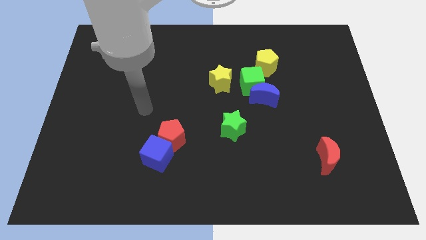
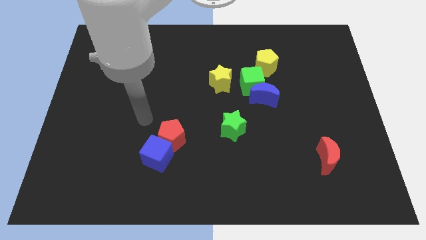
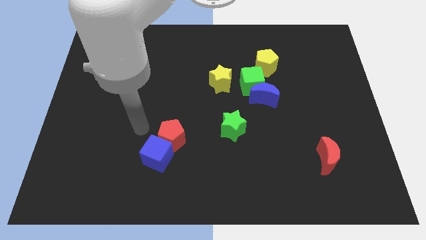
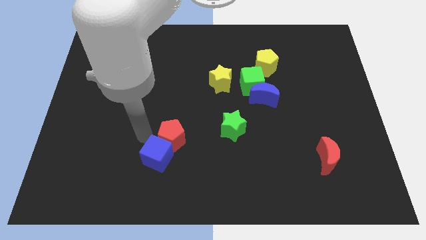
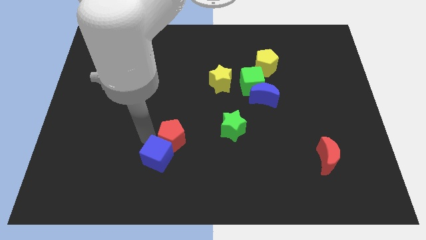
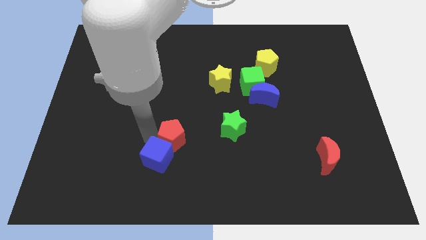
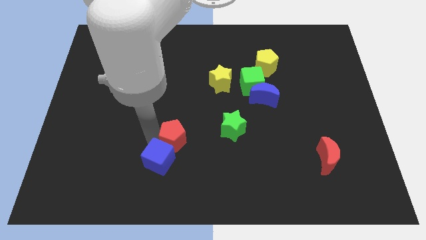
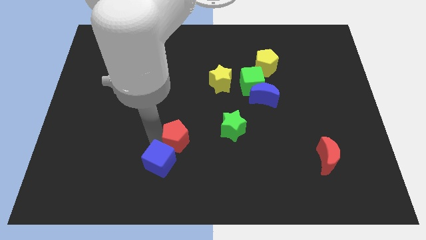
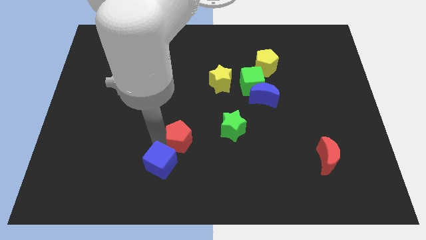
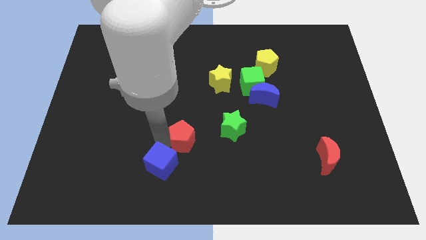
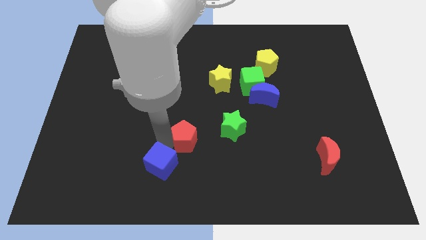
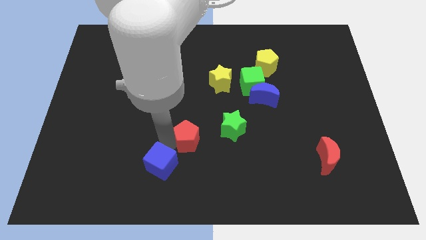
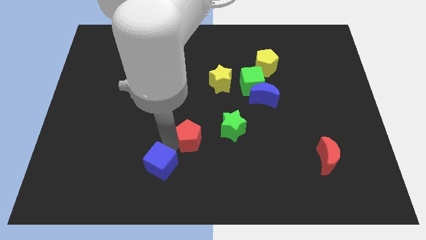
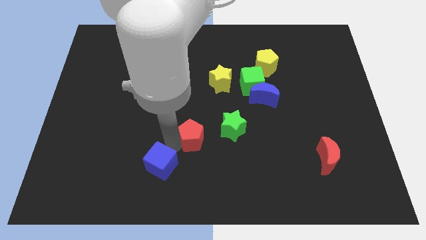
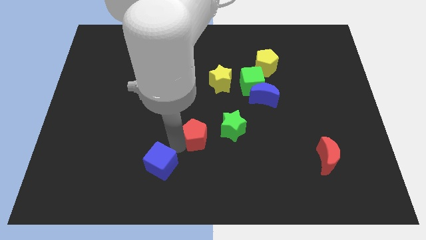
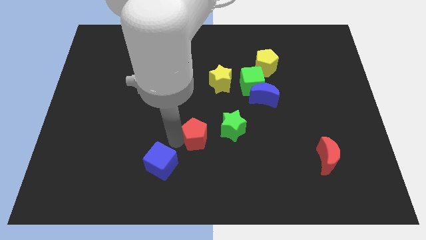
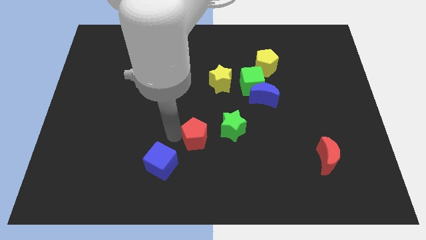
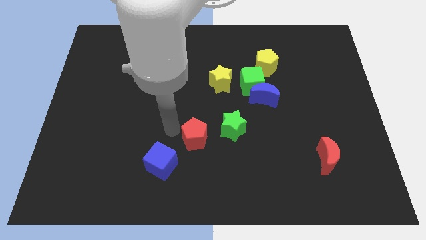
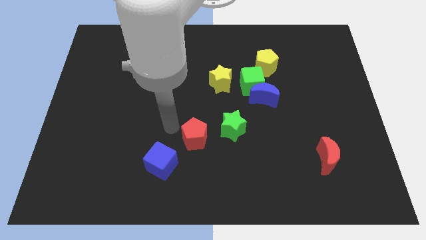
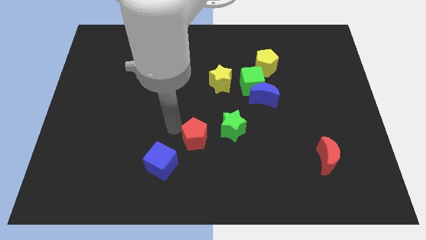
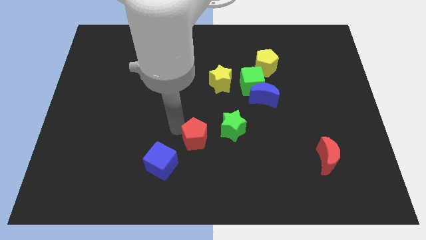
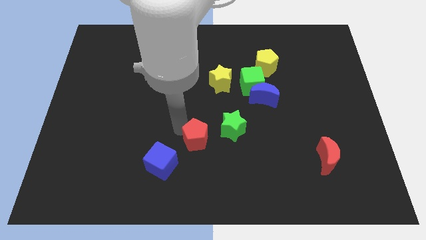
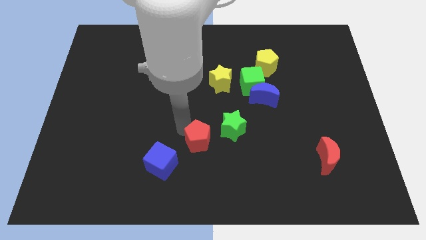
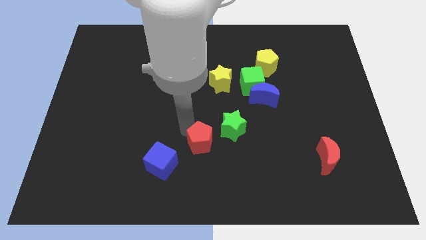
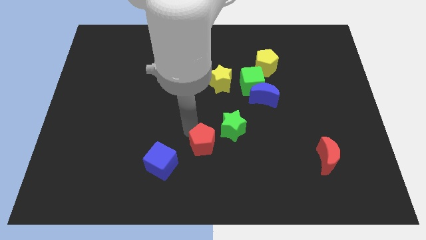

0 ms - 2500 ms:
slightly push the red pentagon right

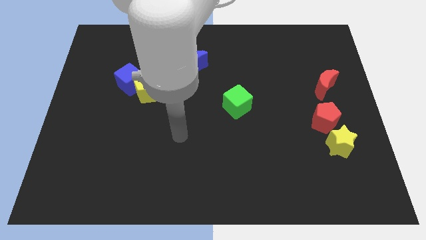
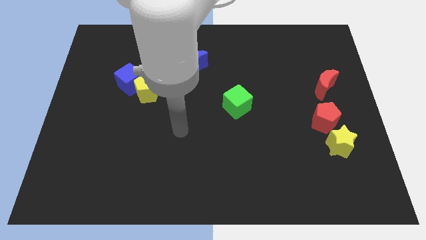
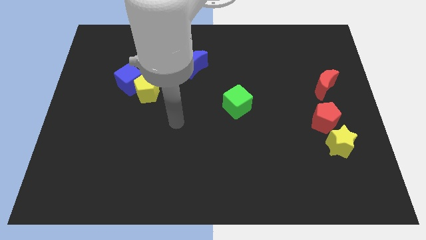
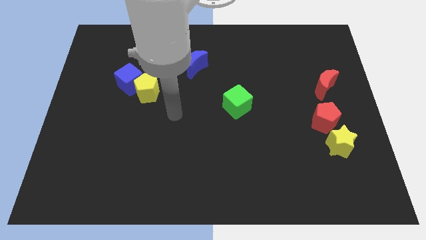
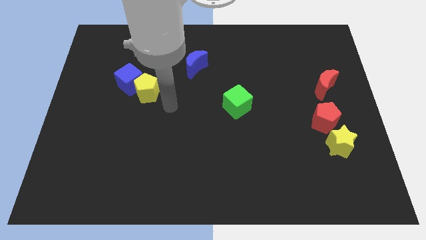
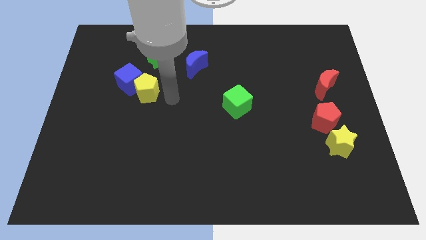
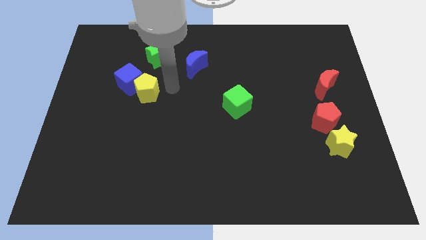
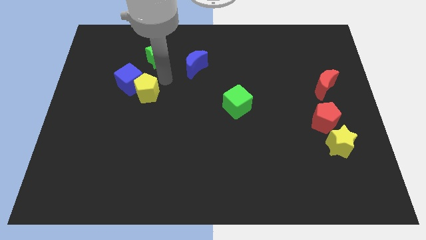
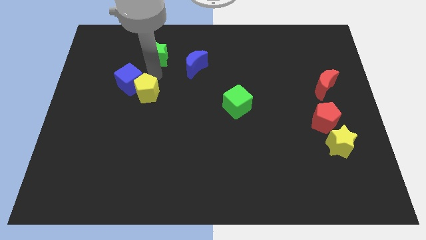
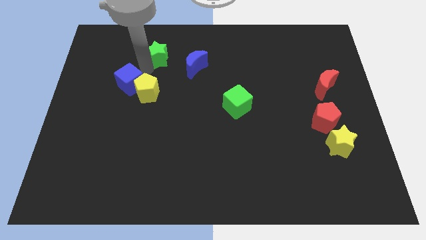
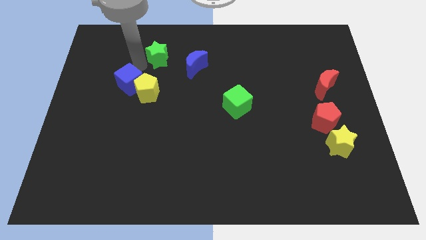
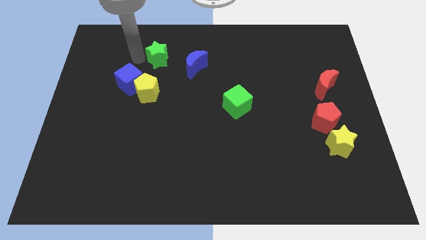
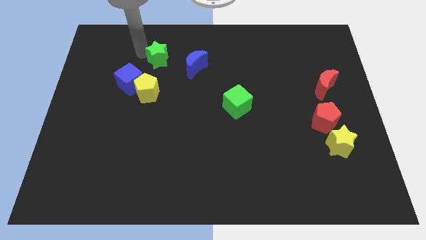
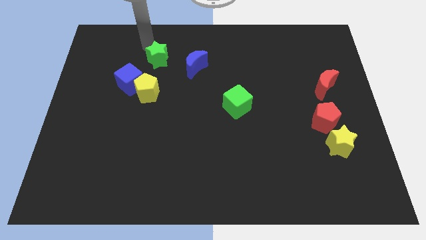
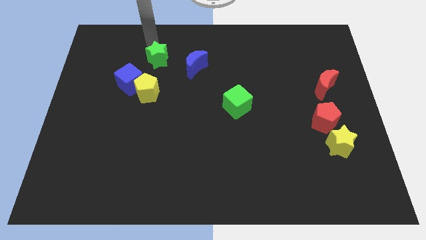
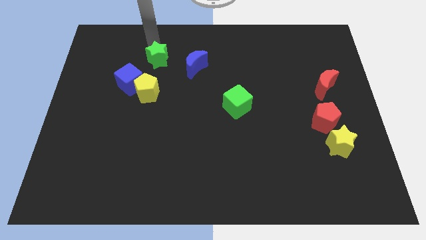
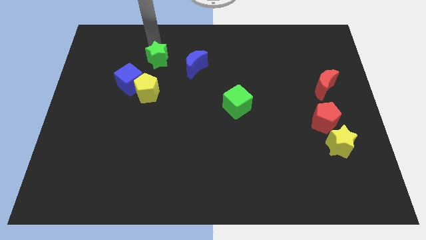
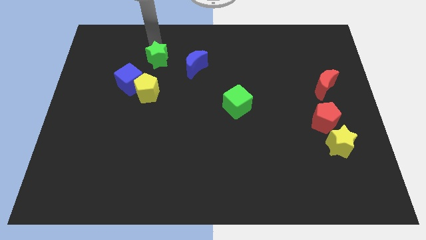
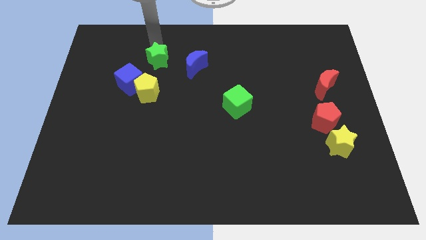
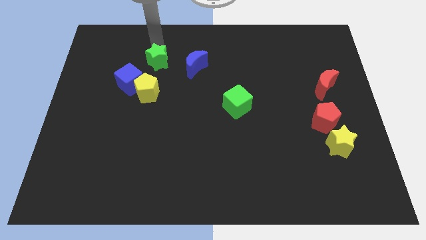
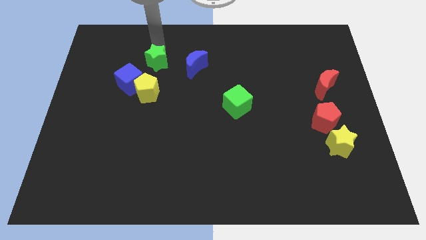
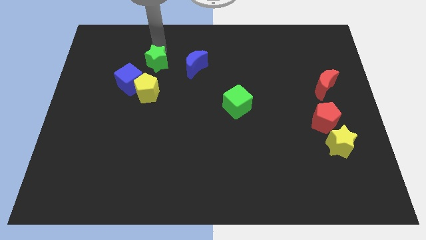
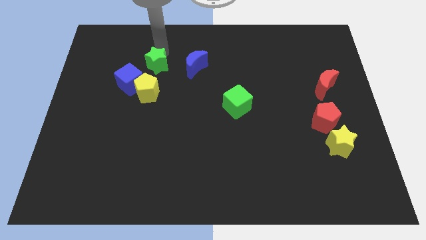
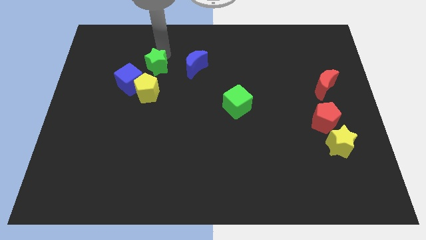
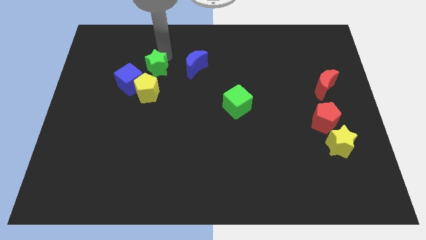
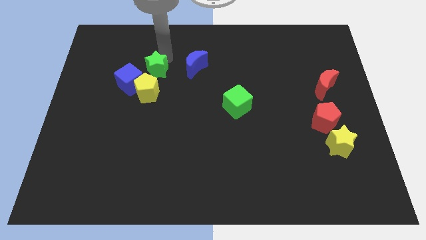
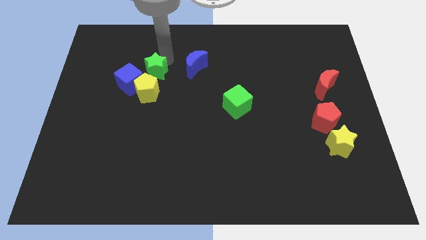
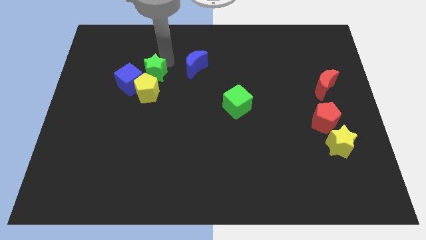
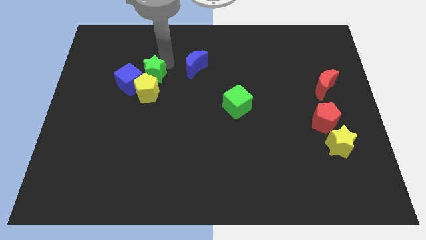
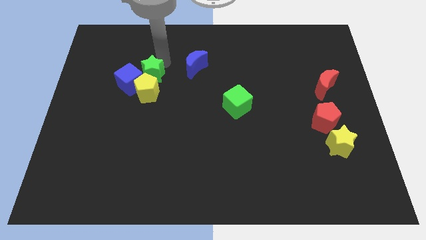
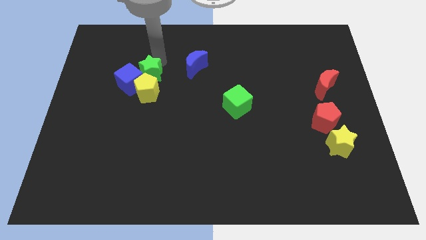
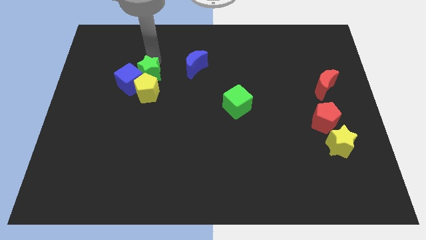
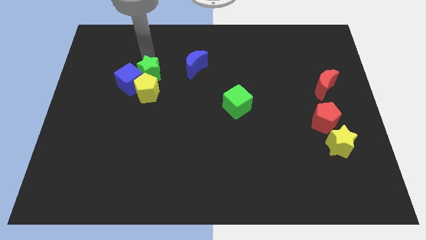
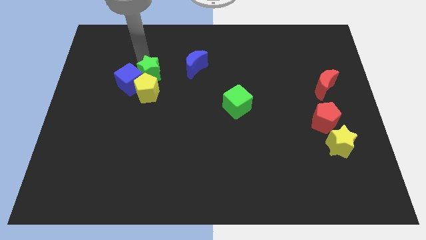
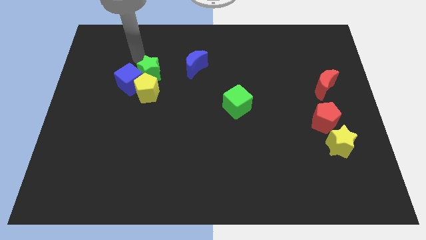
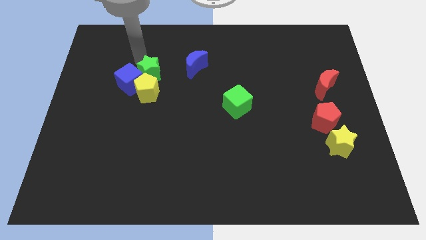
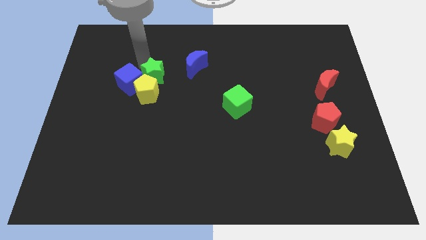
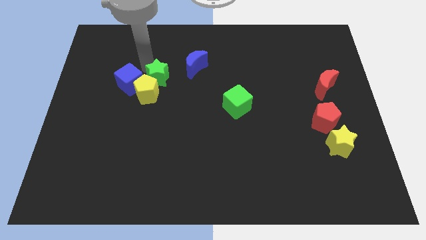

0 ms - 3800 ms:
move the green star downwards somewhat

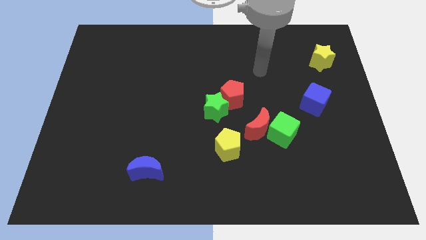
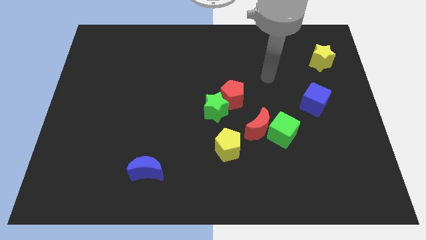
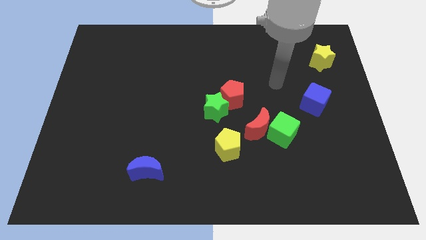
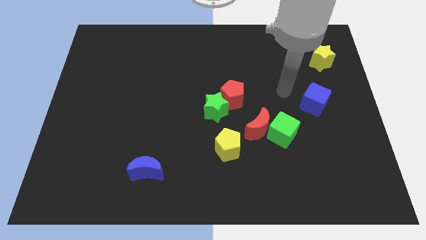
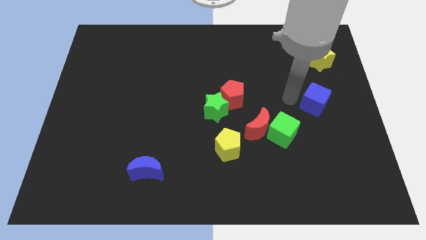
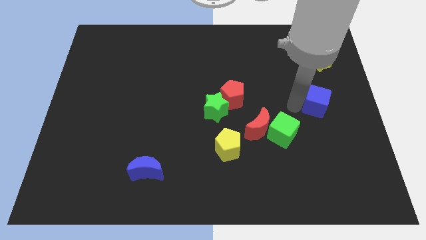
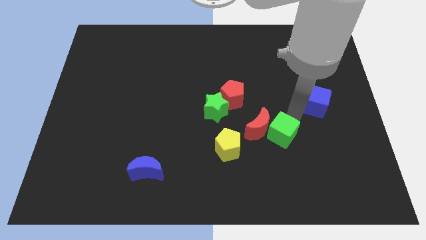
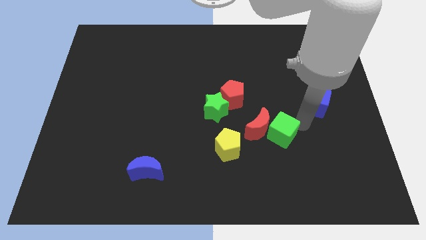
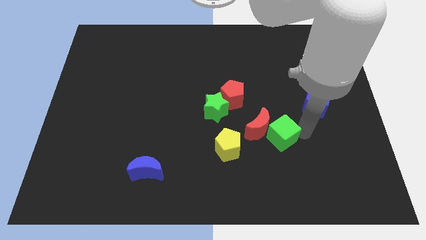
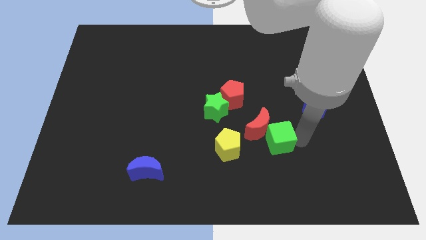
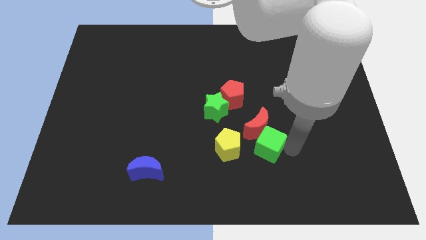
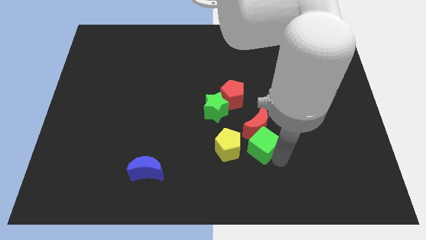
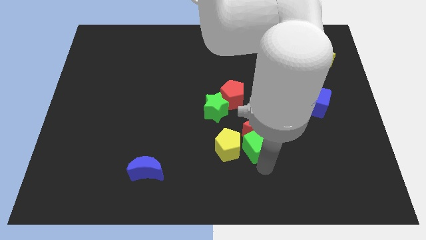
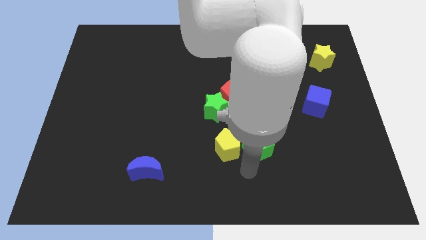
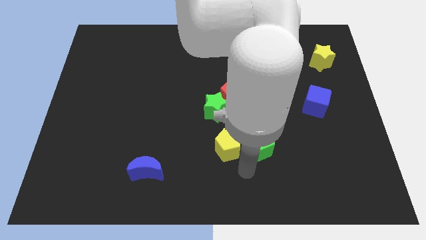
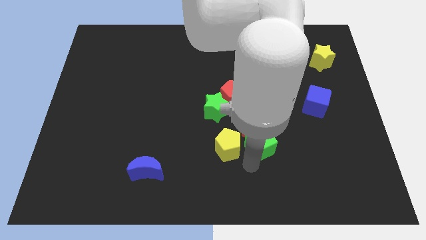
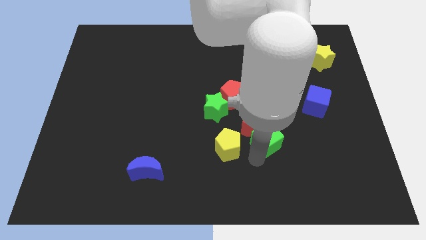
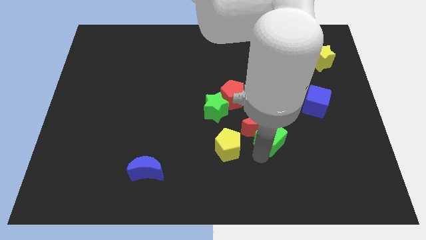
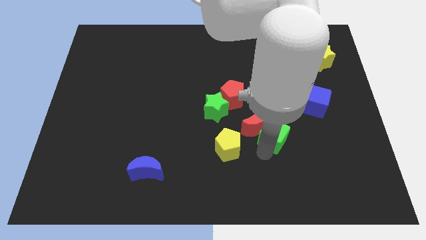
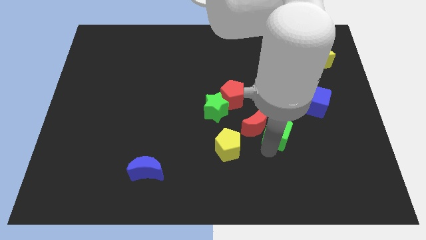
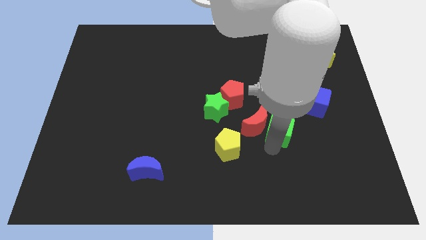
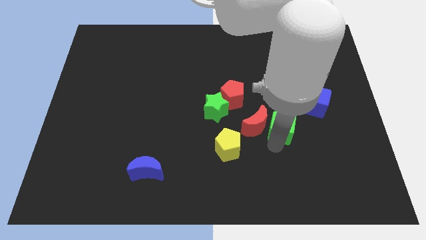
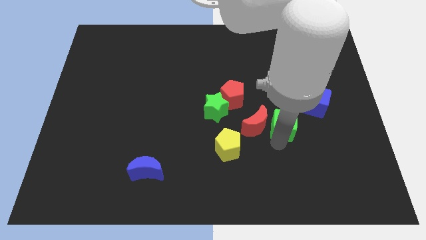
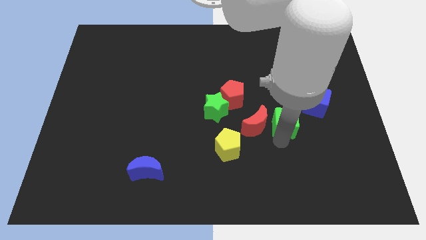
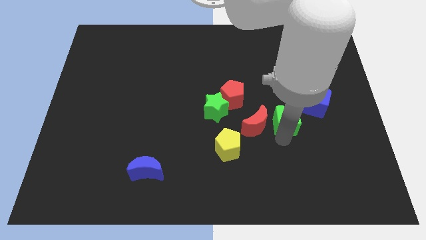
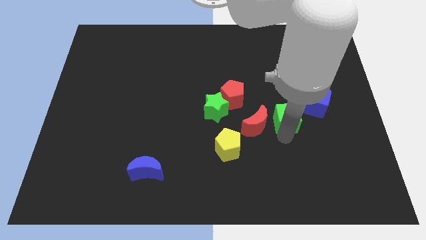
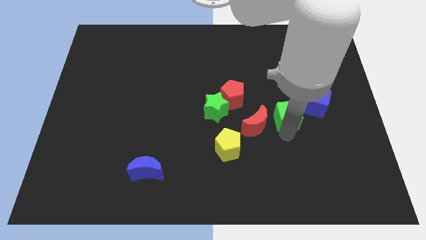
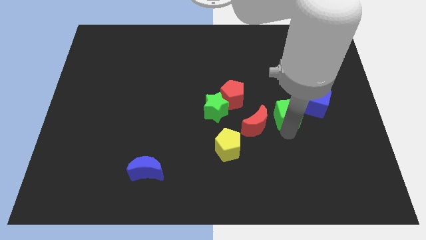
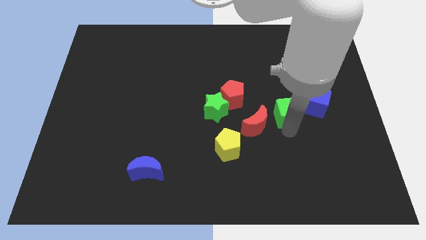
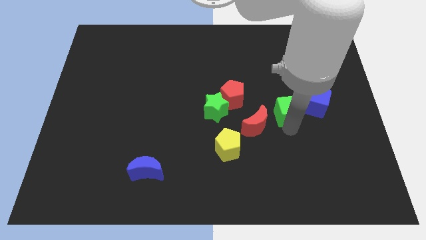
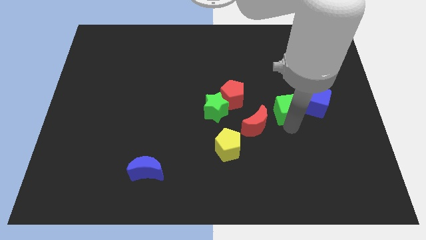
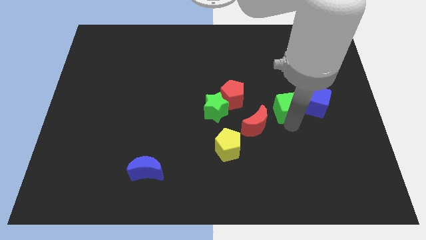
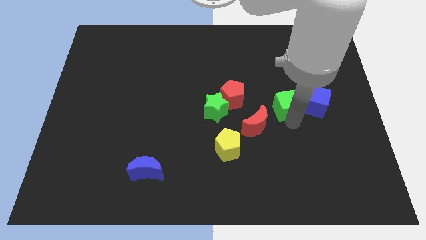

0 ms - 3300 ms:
slightly push the green cube upwards
